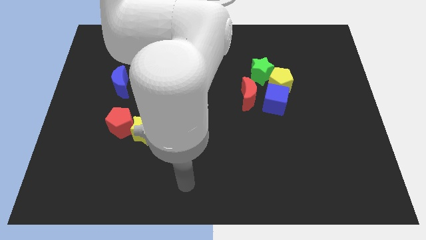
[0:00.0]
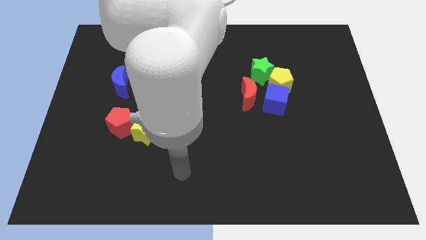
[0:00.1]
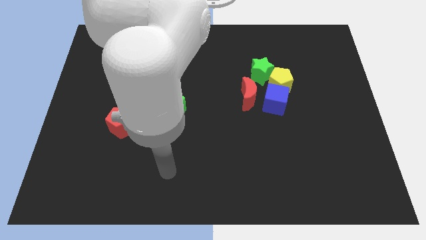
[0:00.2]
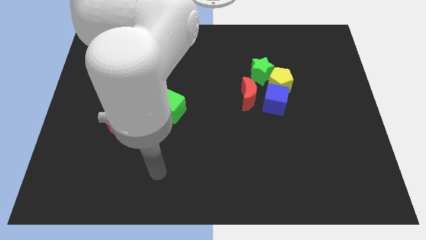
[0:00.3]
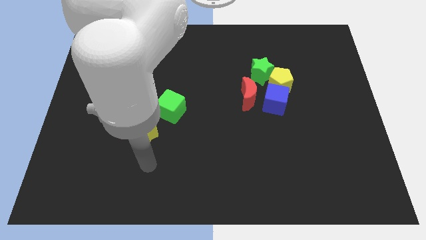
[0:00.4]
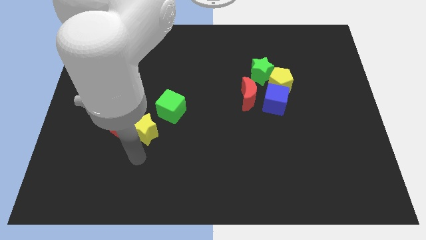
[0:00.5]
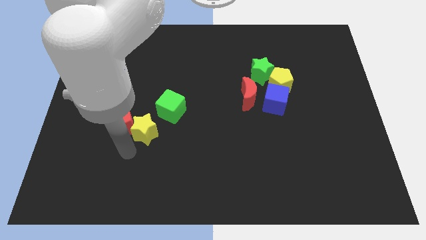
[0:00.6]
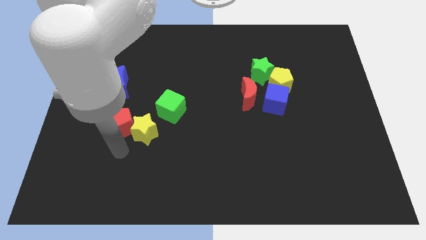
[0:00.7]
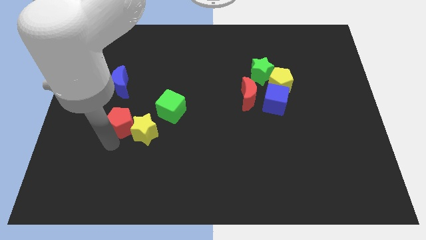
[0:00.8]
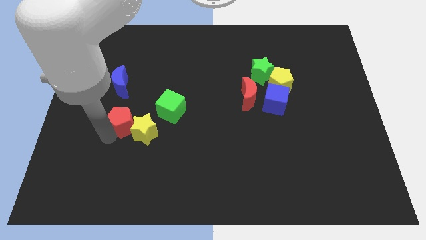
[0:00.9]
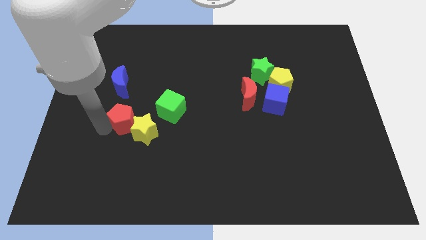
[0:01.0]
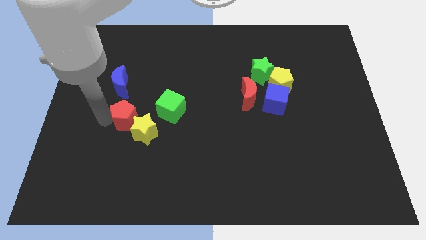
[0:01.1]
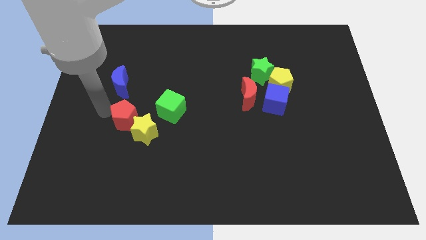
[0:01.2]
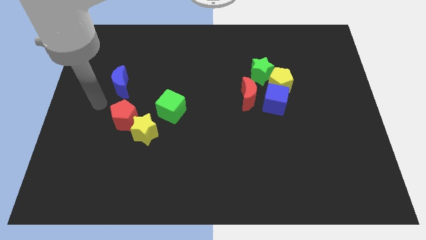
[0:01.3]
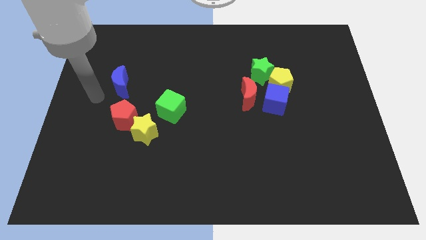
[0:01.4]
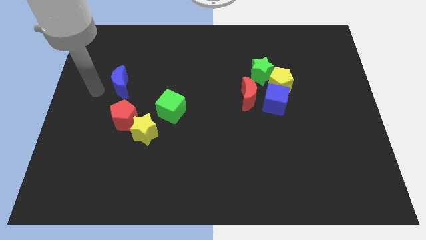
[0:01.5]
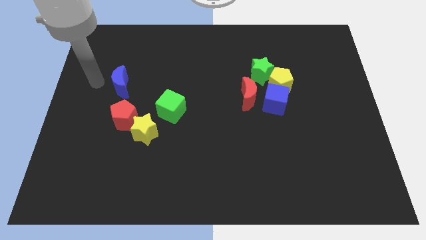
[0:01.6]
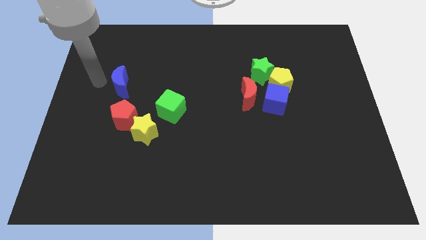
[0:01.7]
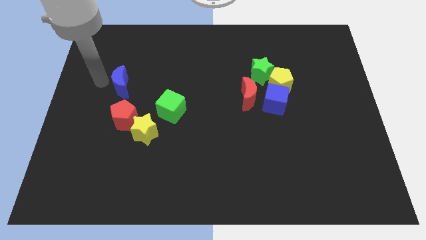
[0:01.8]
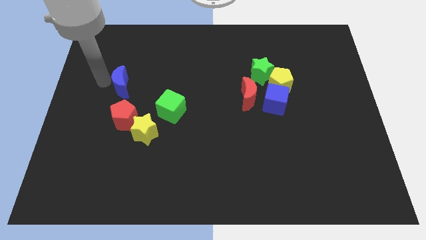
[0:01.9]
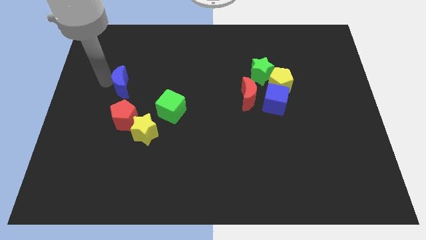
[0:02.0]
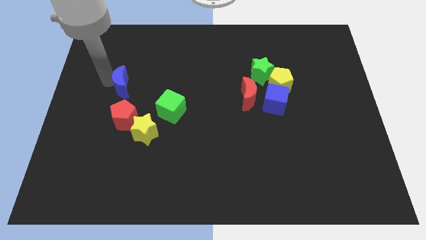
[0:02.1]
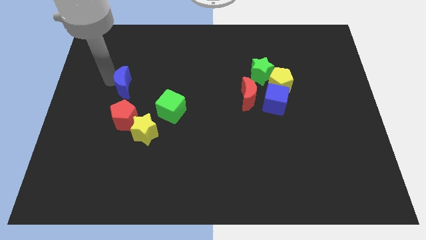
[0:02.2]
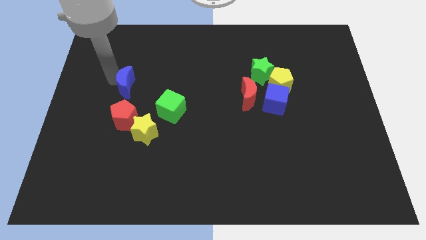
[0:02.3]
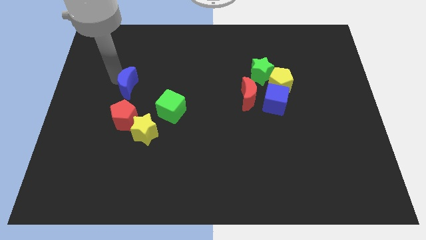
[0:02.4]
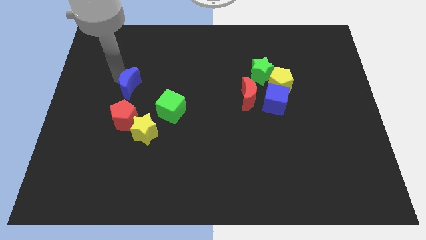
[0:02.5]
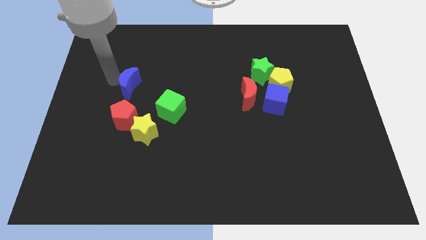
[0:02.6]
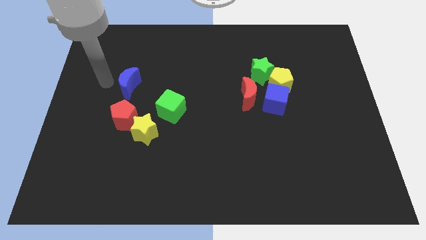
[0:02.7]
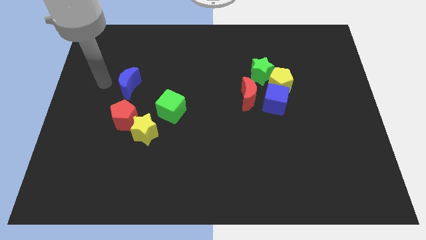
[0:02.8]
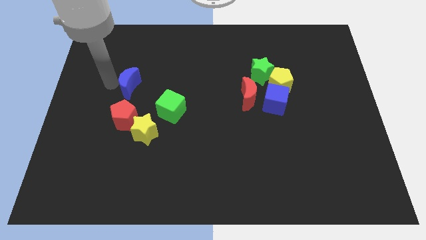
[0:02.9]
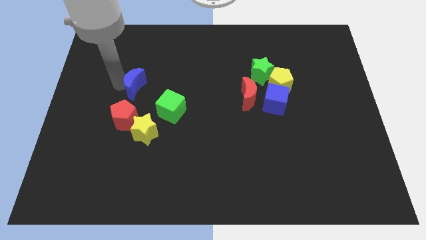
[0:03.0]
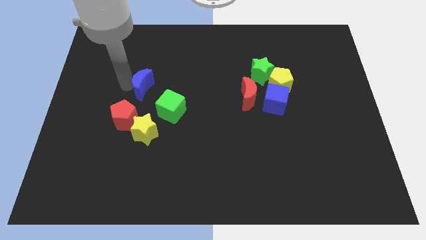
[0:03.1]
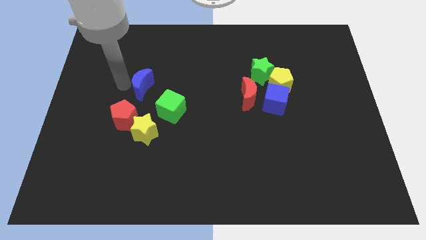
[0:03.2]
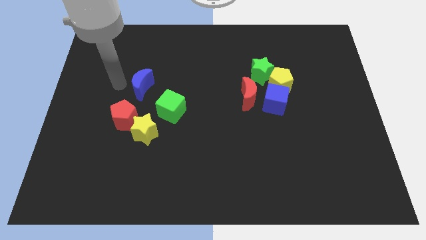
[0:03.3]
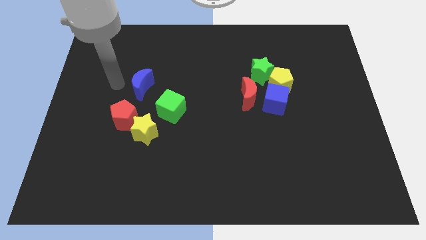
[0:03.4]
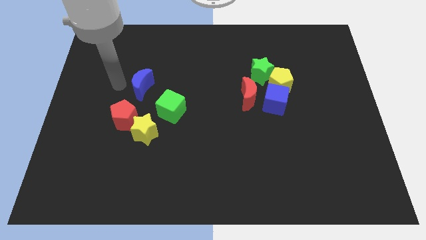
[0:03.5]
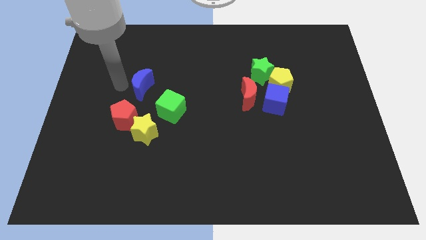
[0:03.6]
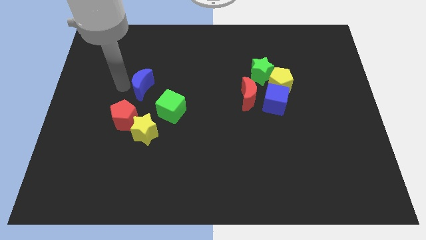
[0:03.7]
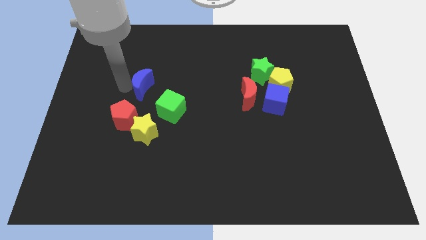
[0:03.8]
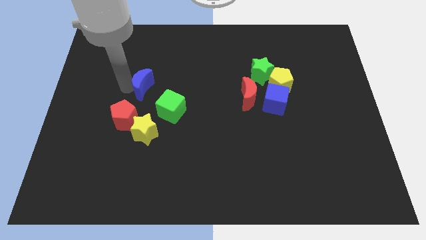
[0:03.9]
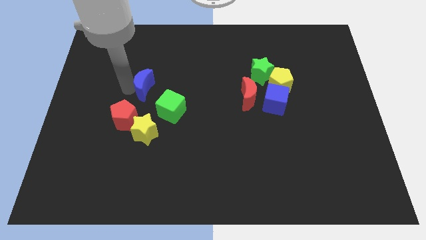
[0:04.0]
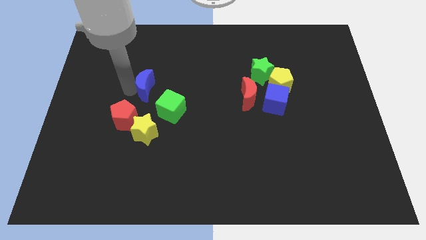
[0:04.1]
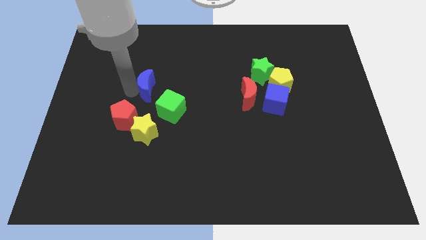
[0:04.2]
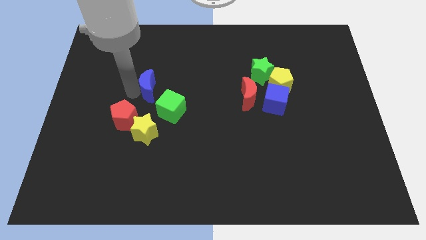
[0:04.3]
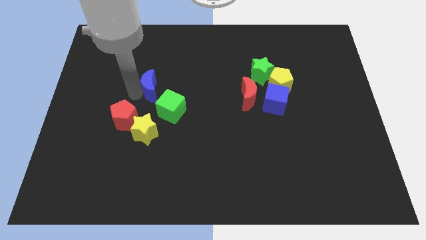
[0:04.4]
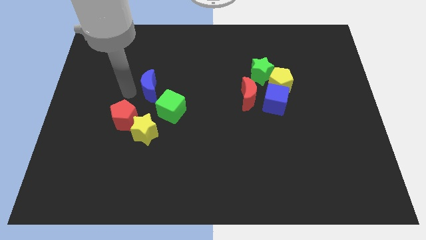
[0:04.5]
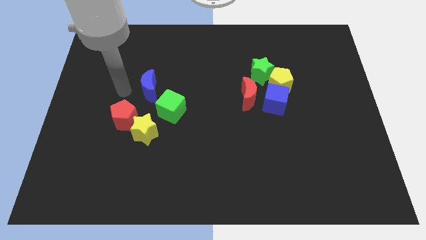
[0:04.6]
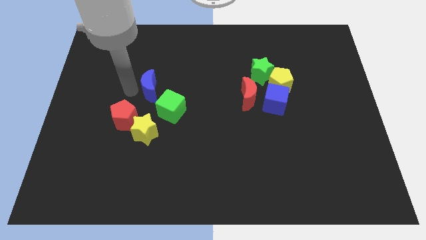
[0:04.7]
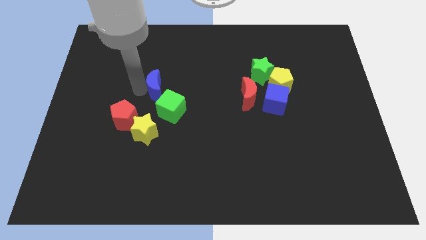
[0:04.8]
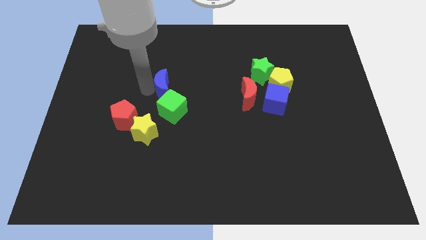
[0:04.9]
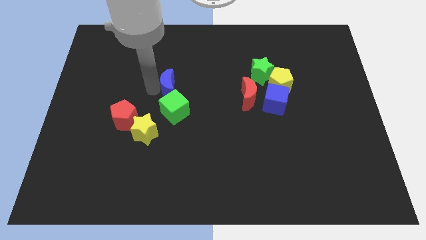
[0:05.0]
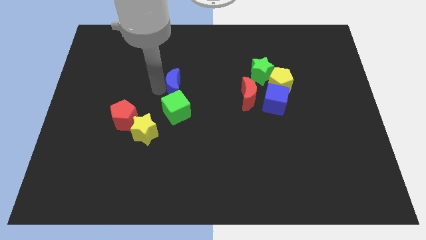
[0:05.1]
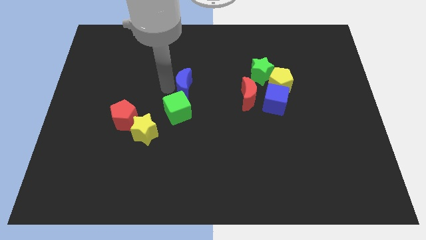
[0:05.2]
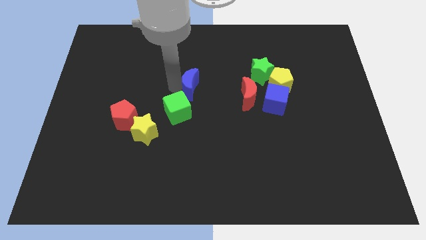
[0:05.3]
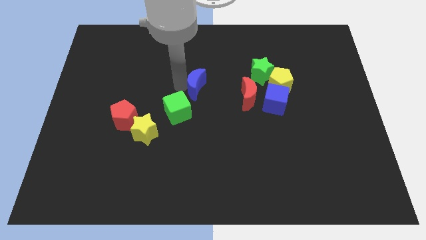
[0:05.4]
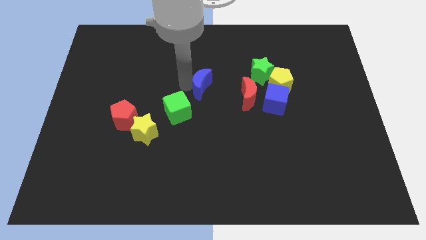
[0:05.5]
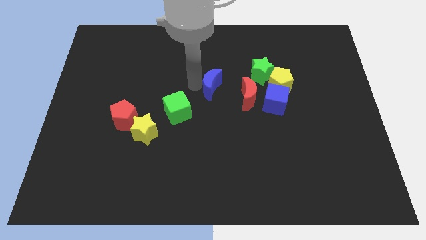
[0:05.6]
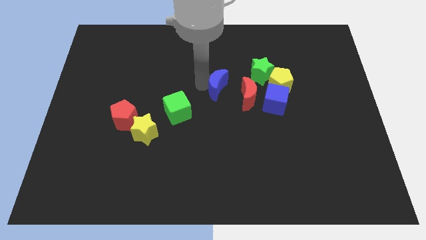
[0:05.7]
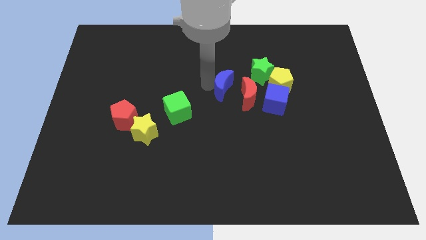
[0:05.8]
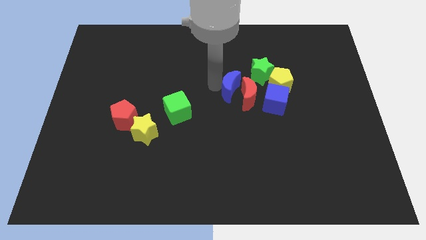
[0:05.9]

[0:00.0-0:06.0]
move the blue moon towards the red moon
